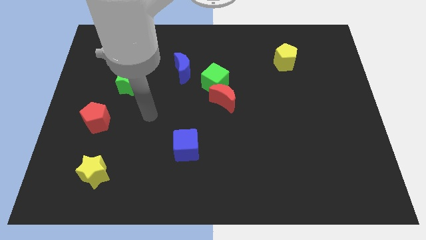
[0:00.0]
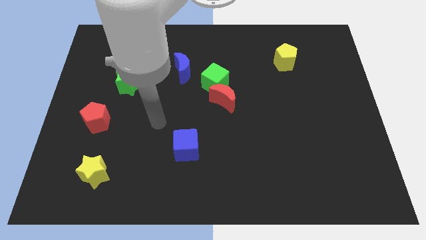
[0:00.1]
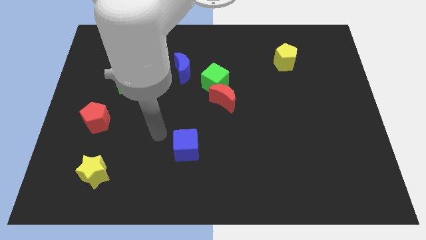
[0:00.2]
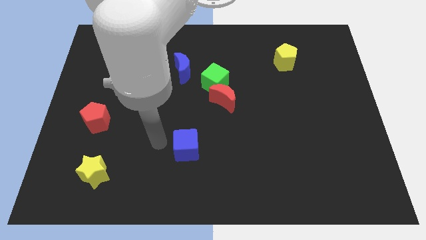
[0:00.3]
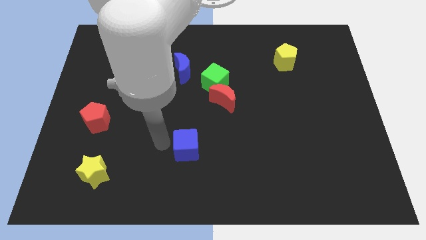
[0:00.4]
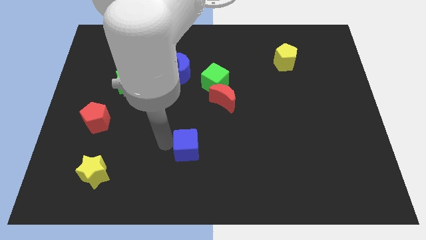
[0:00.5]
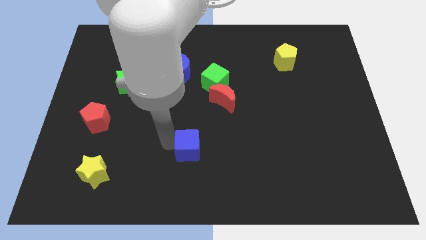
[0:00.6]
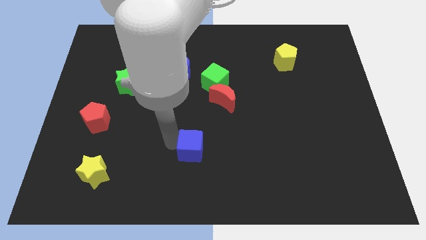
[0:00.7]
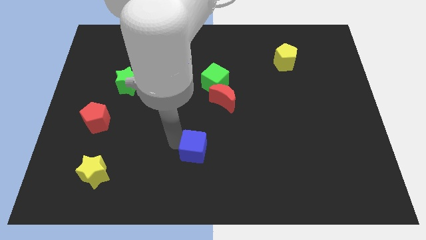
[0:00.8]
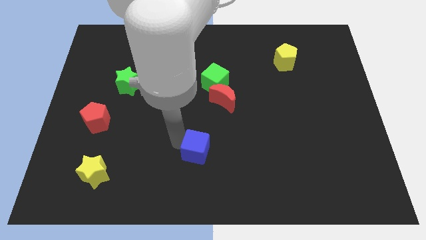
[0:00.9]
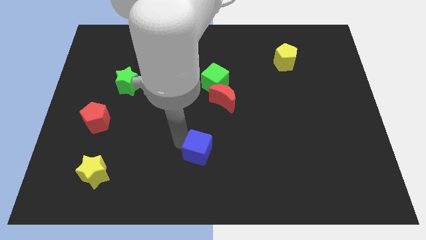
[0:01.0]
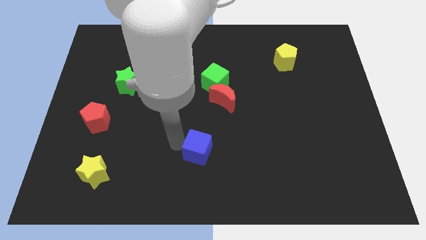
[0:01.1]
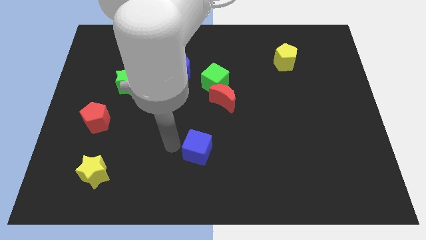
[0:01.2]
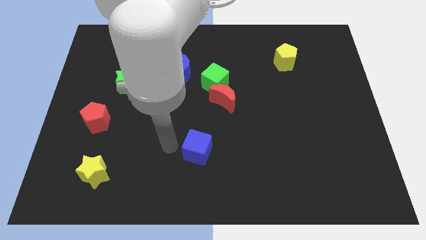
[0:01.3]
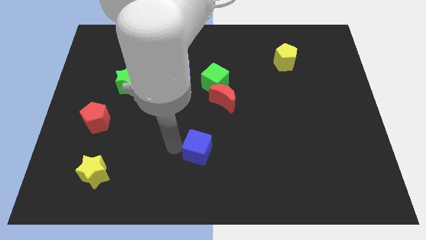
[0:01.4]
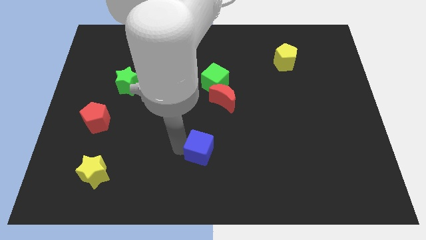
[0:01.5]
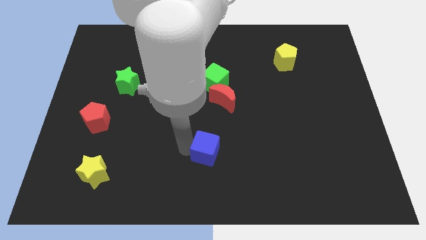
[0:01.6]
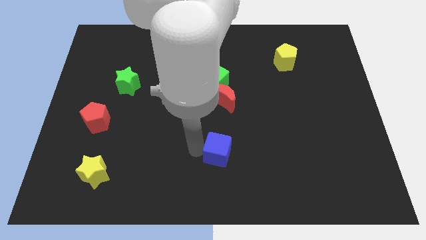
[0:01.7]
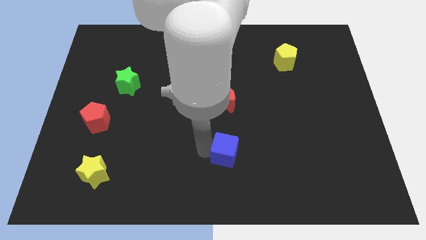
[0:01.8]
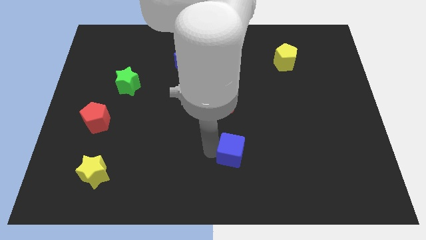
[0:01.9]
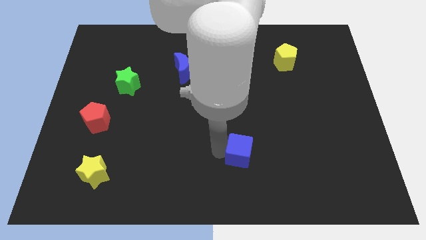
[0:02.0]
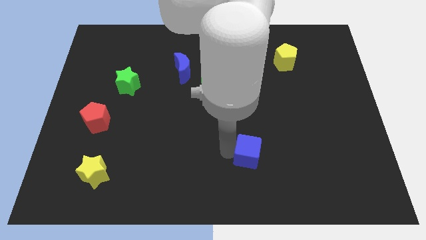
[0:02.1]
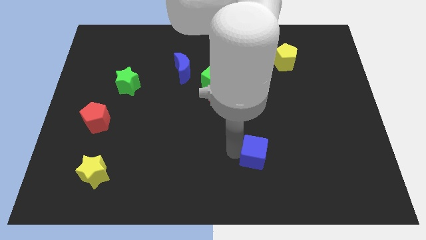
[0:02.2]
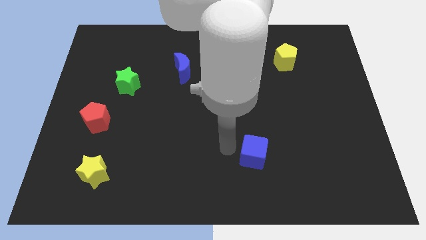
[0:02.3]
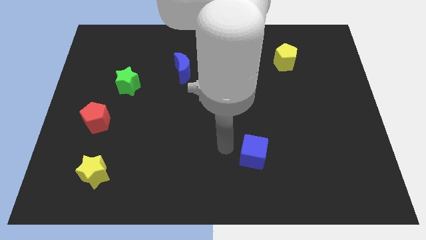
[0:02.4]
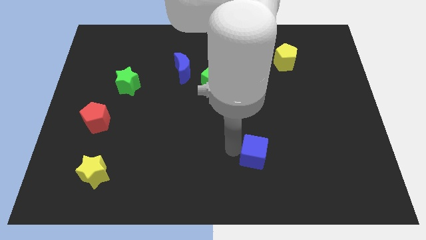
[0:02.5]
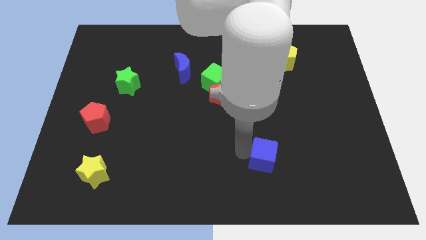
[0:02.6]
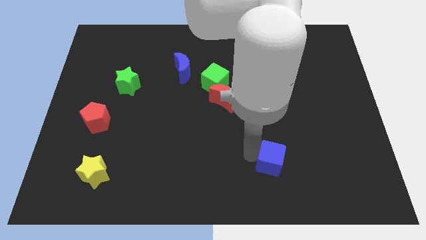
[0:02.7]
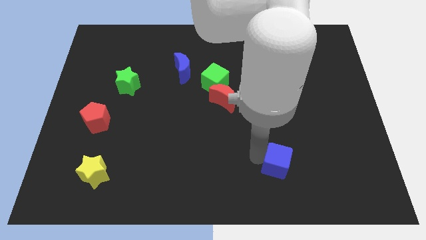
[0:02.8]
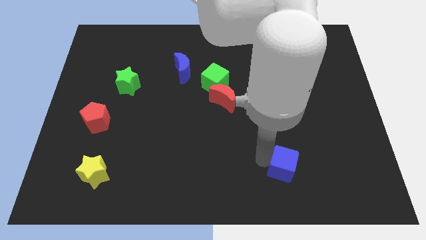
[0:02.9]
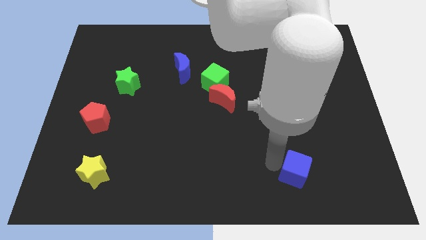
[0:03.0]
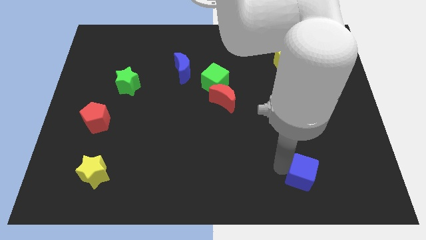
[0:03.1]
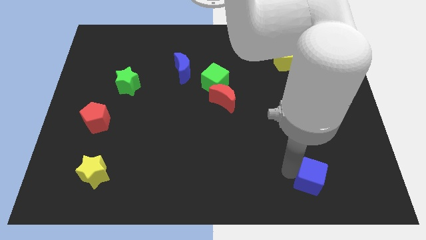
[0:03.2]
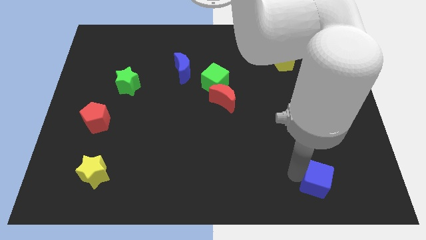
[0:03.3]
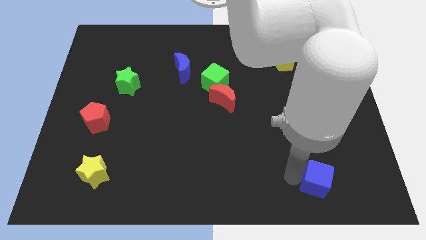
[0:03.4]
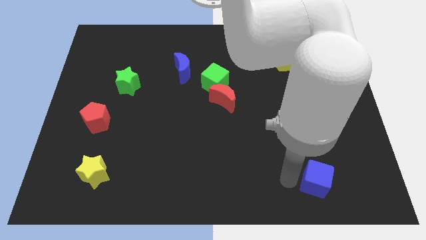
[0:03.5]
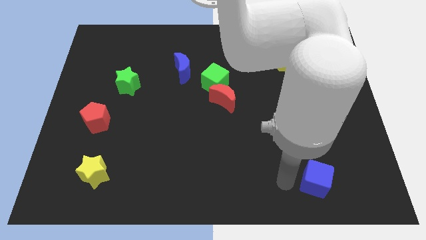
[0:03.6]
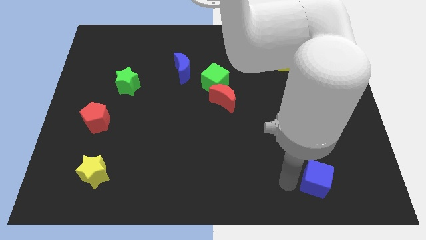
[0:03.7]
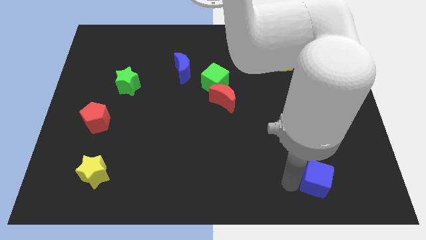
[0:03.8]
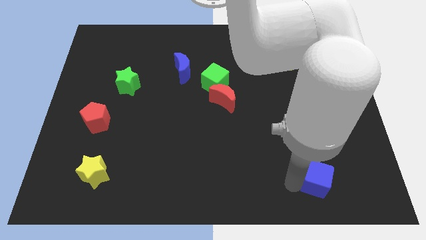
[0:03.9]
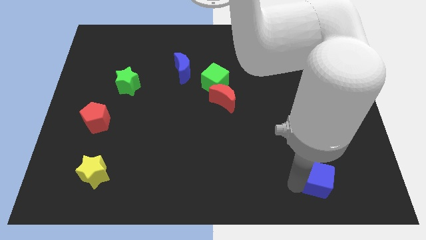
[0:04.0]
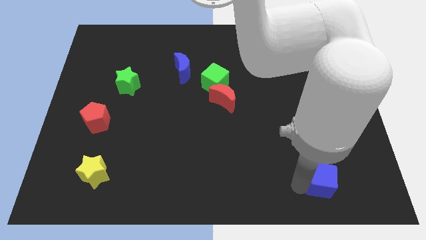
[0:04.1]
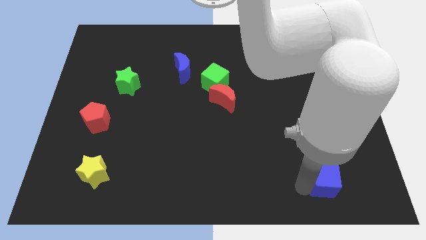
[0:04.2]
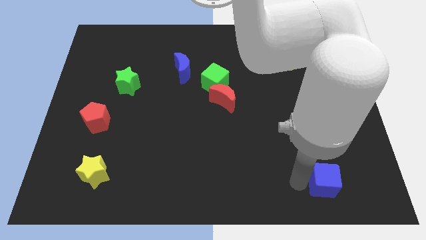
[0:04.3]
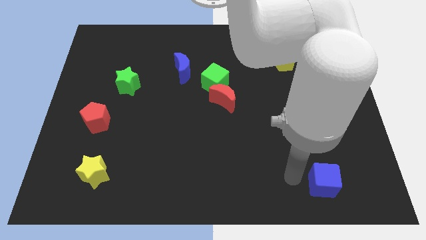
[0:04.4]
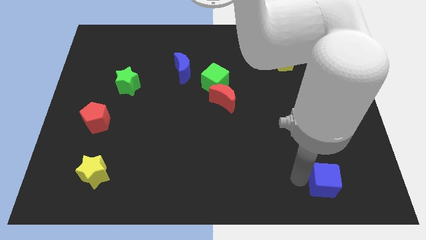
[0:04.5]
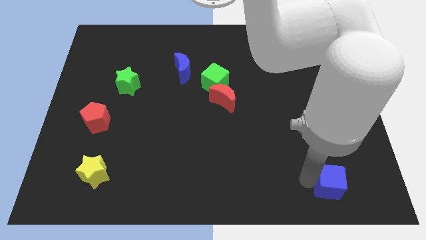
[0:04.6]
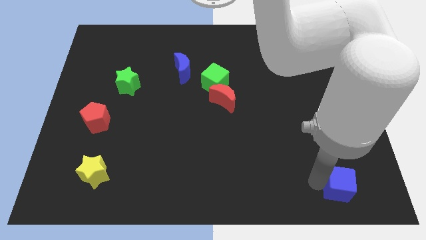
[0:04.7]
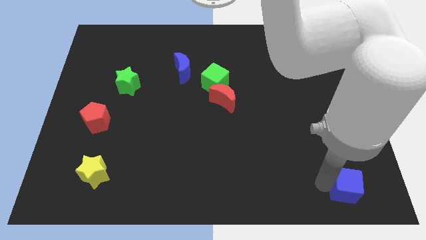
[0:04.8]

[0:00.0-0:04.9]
push the blue cube to the lower right corner

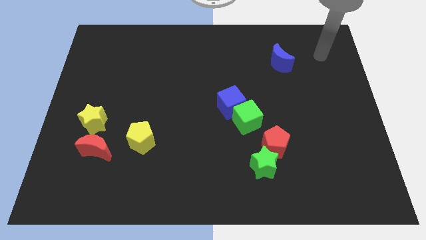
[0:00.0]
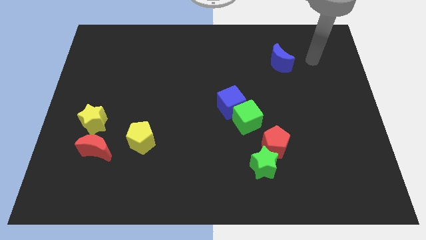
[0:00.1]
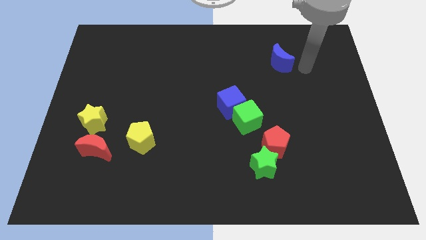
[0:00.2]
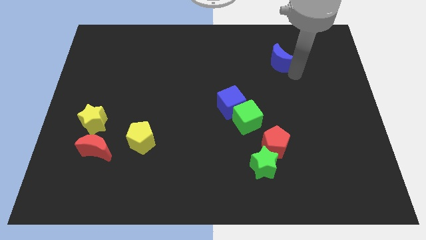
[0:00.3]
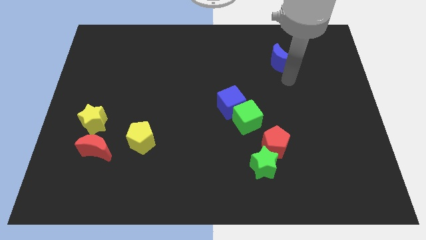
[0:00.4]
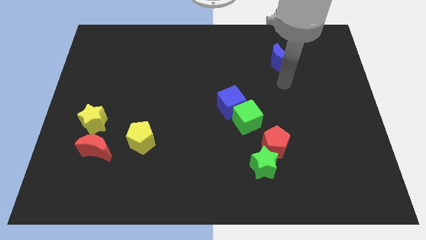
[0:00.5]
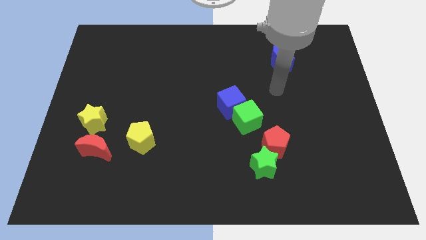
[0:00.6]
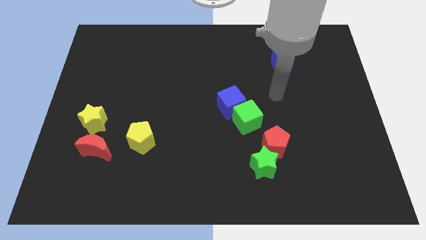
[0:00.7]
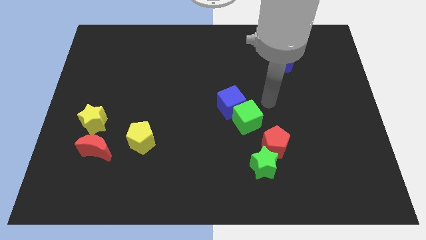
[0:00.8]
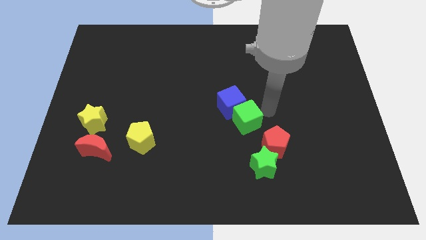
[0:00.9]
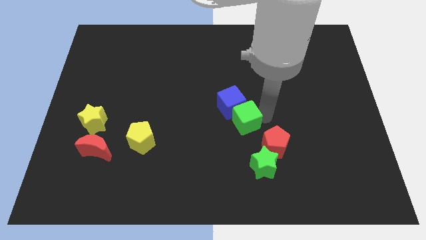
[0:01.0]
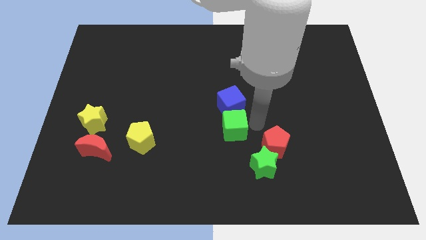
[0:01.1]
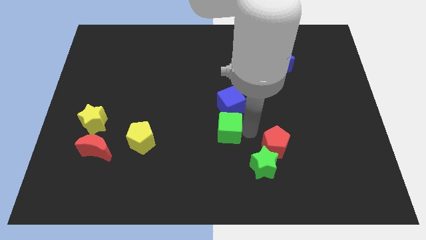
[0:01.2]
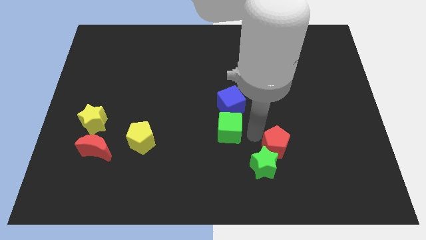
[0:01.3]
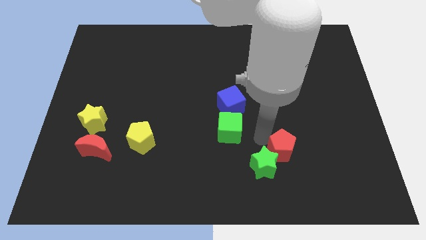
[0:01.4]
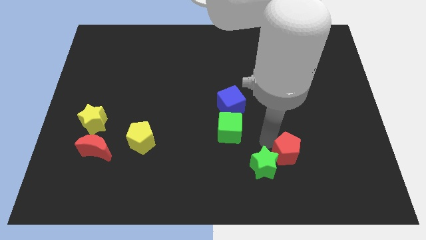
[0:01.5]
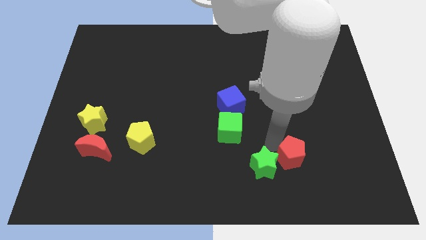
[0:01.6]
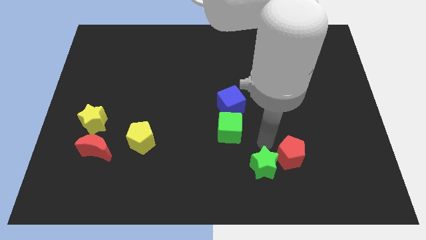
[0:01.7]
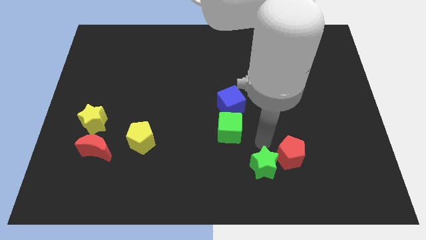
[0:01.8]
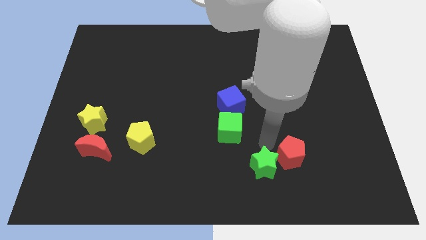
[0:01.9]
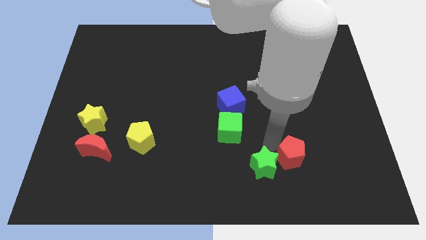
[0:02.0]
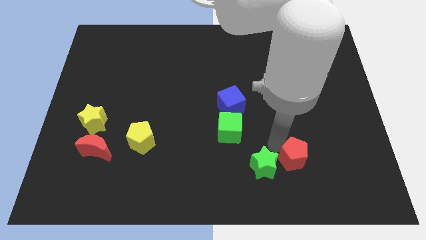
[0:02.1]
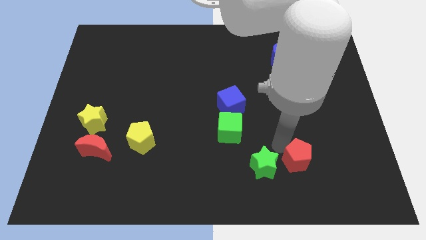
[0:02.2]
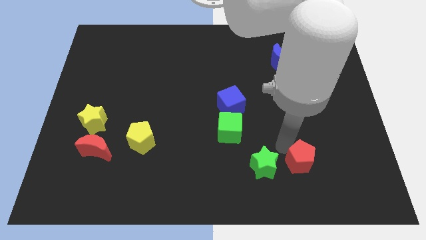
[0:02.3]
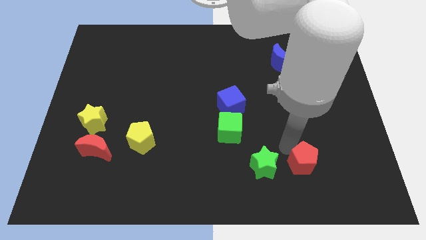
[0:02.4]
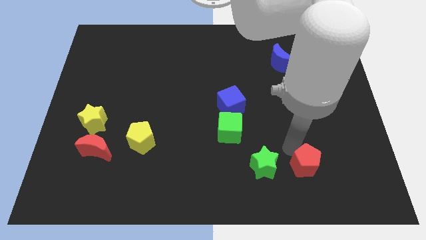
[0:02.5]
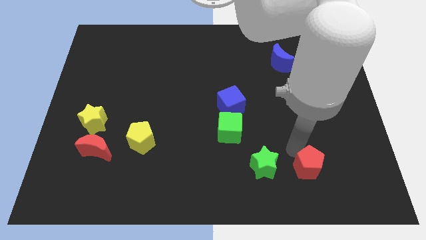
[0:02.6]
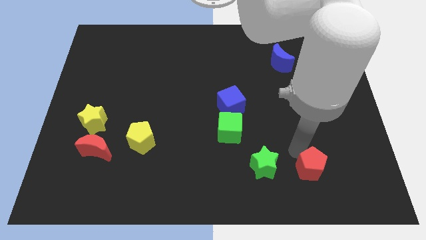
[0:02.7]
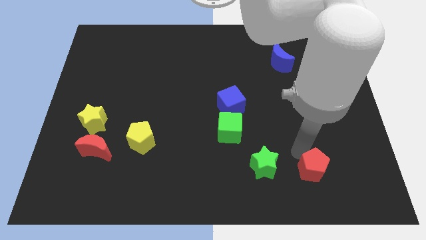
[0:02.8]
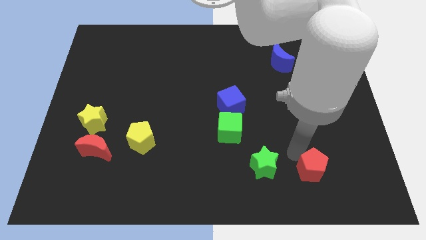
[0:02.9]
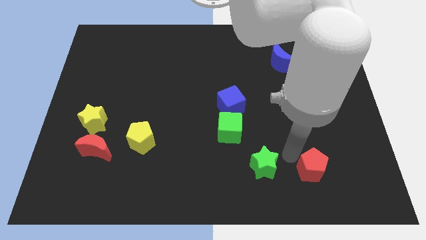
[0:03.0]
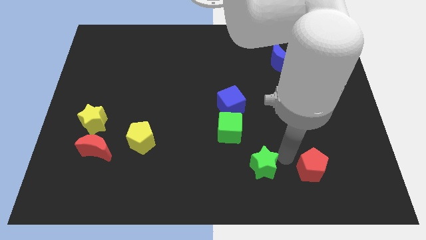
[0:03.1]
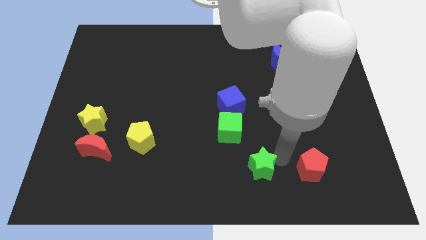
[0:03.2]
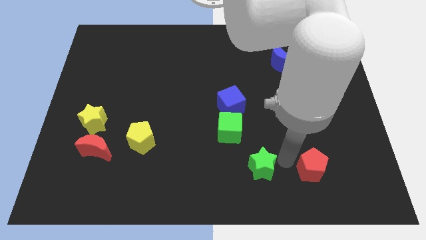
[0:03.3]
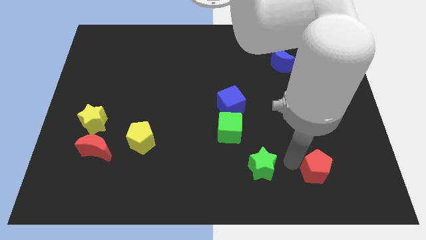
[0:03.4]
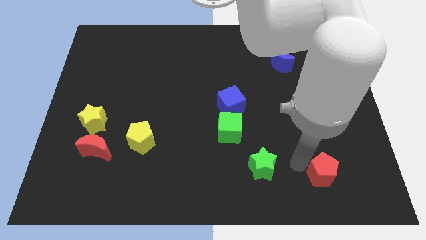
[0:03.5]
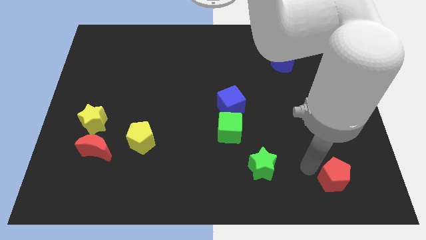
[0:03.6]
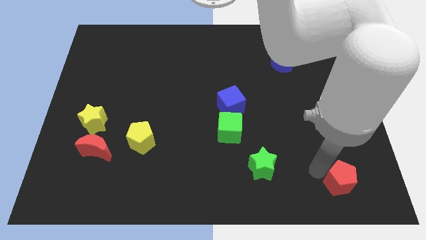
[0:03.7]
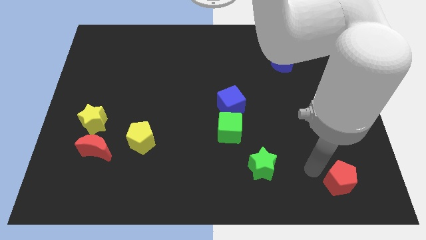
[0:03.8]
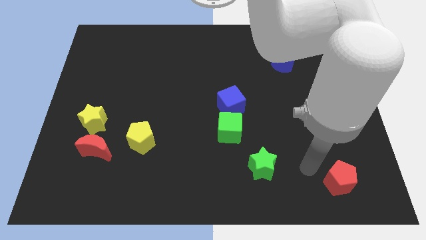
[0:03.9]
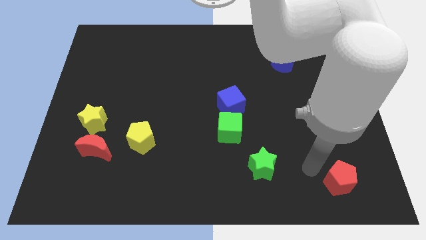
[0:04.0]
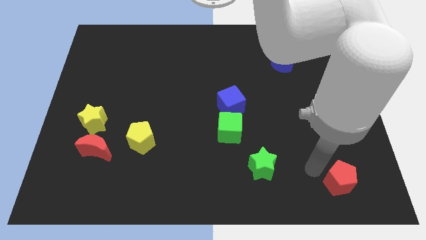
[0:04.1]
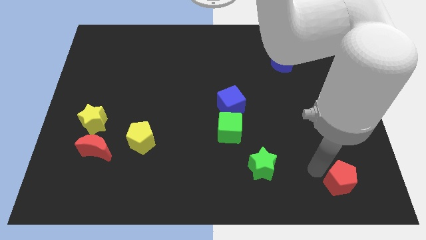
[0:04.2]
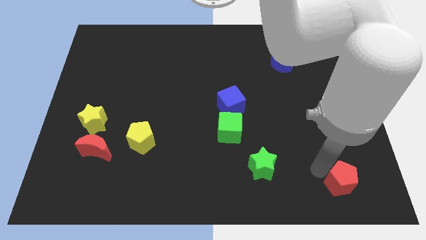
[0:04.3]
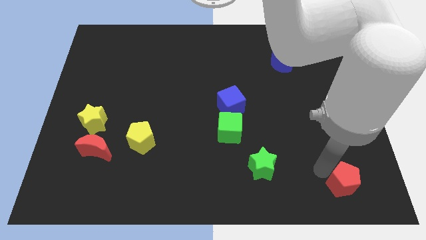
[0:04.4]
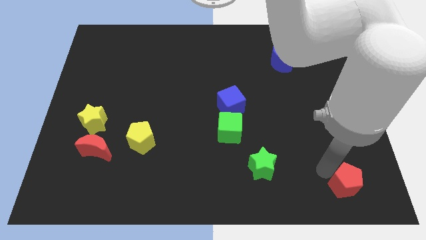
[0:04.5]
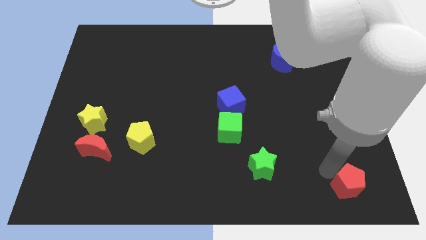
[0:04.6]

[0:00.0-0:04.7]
move the red pentagon to the bottom right
